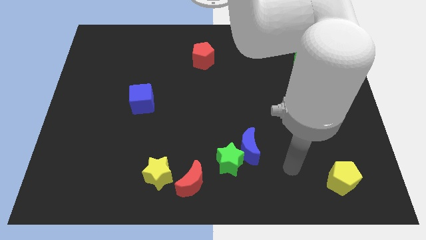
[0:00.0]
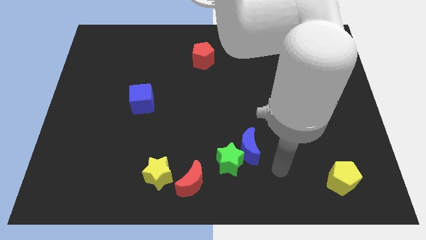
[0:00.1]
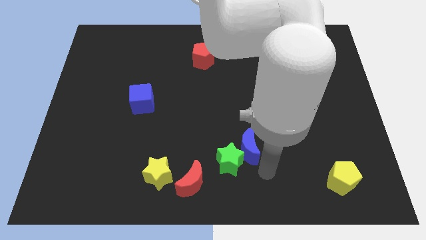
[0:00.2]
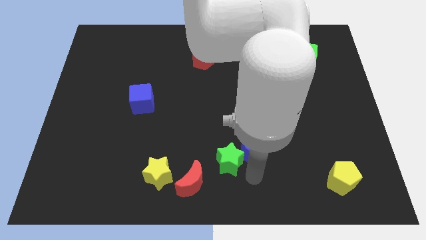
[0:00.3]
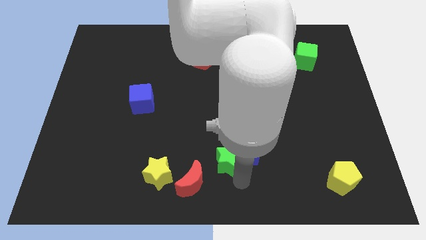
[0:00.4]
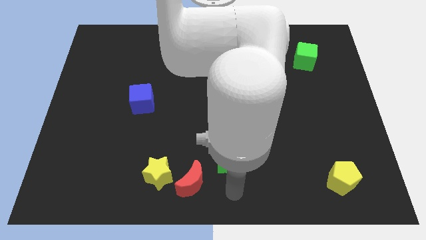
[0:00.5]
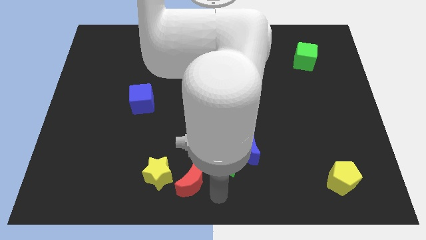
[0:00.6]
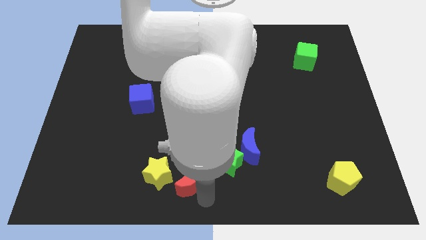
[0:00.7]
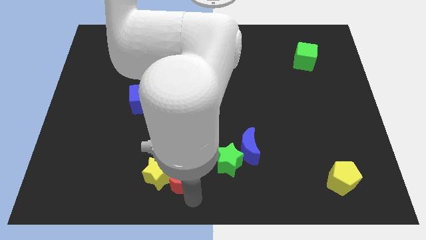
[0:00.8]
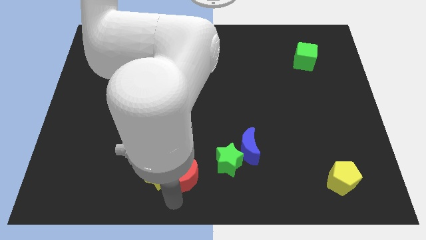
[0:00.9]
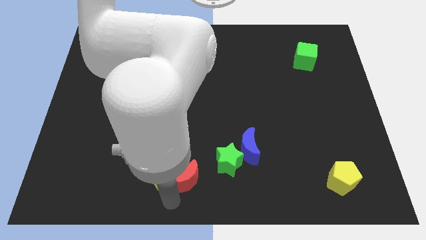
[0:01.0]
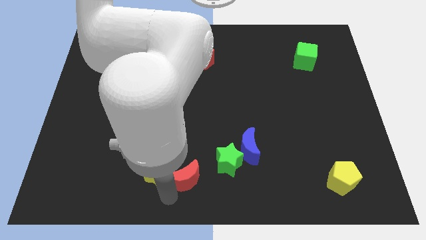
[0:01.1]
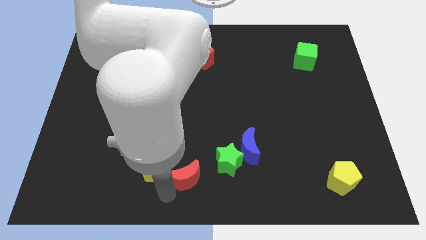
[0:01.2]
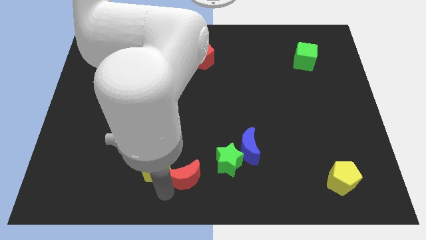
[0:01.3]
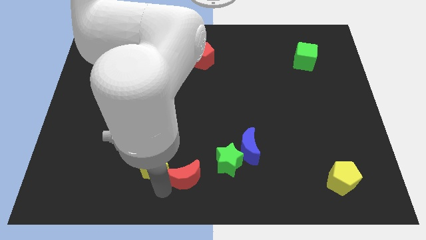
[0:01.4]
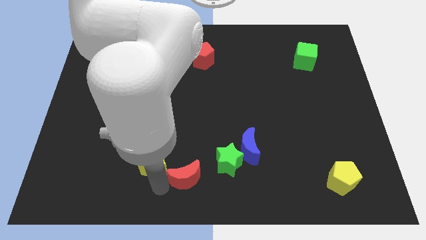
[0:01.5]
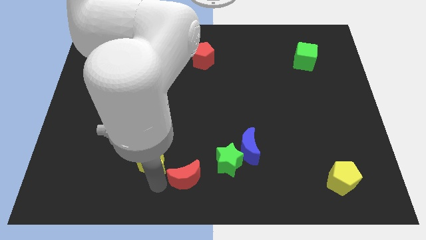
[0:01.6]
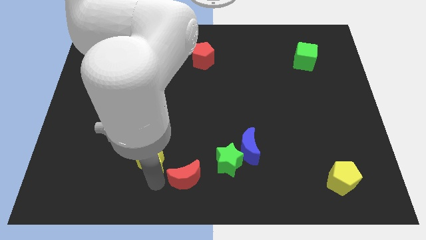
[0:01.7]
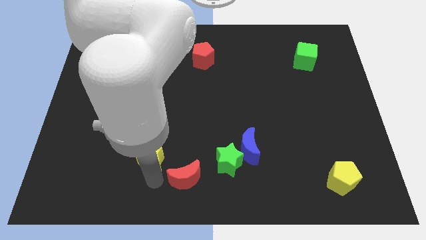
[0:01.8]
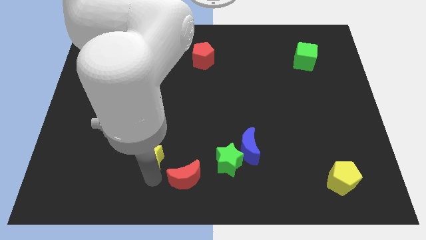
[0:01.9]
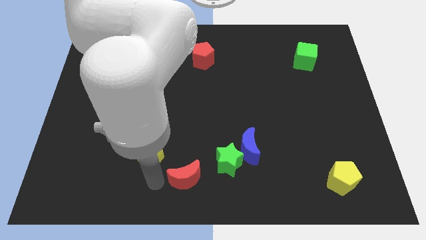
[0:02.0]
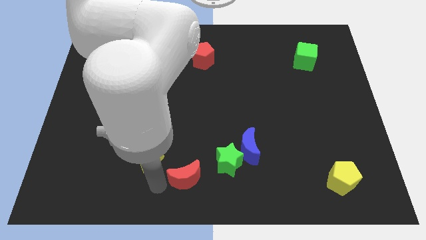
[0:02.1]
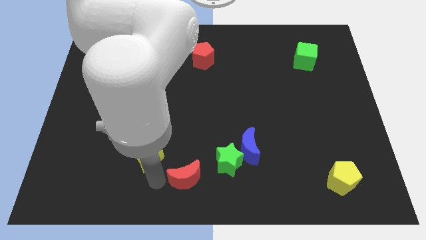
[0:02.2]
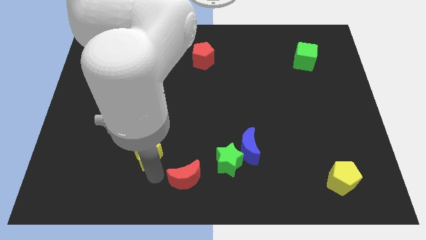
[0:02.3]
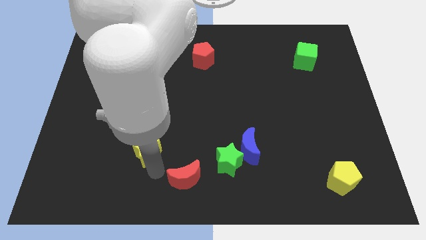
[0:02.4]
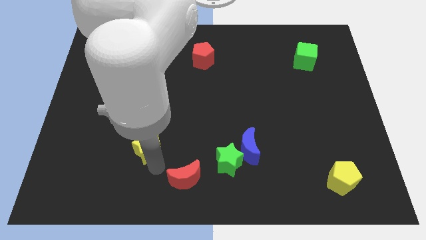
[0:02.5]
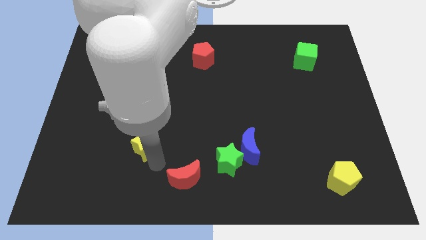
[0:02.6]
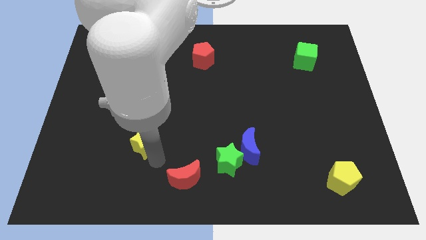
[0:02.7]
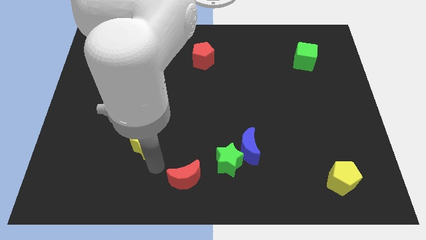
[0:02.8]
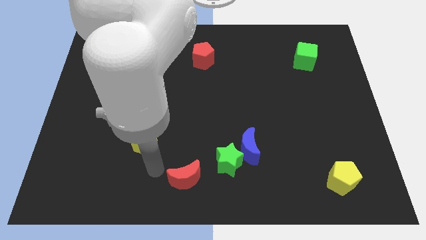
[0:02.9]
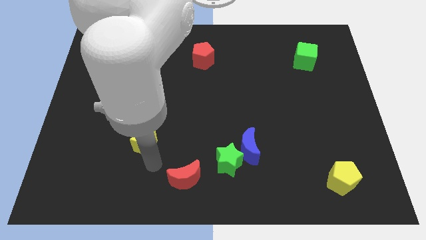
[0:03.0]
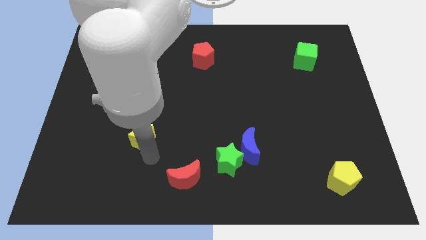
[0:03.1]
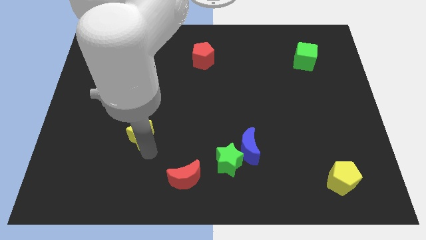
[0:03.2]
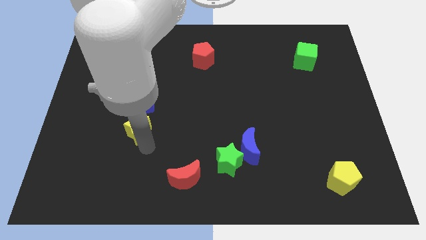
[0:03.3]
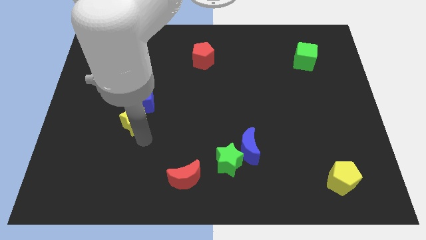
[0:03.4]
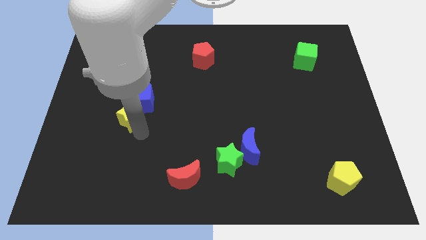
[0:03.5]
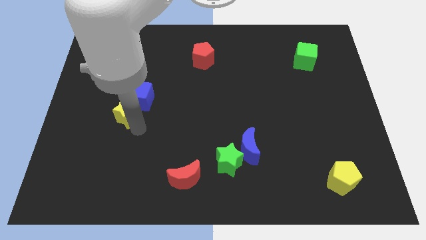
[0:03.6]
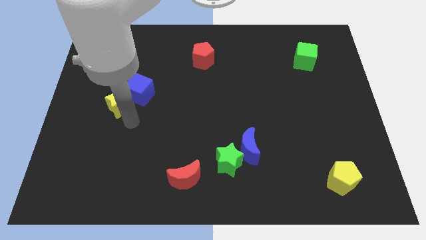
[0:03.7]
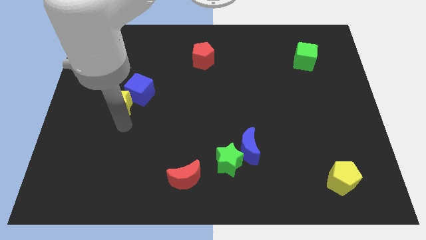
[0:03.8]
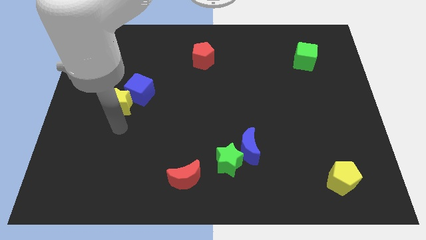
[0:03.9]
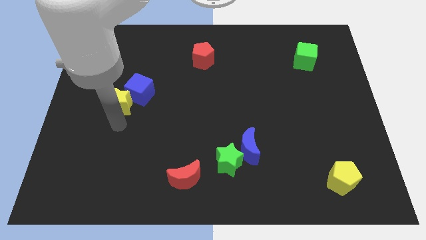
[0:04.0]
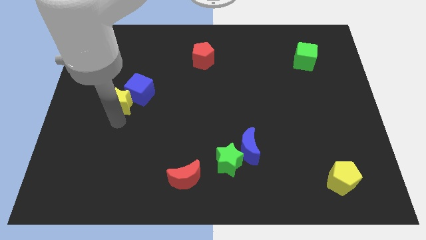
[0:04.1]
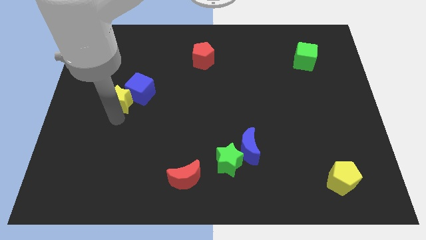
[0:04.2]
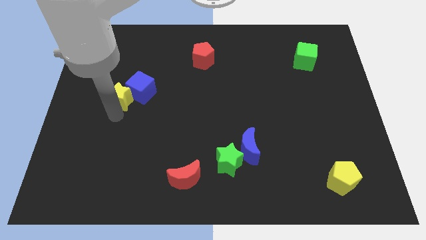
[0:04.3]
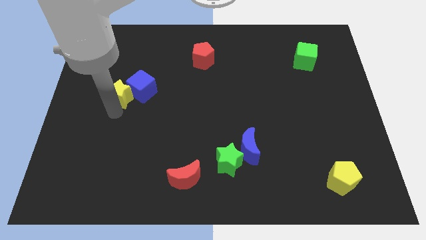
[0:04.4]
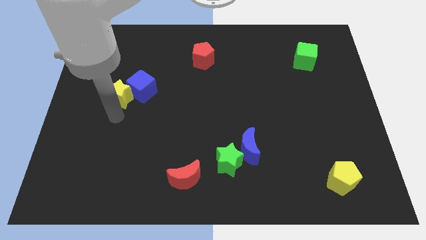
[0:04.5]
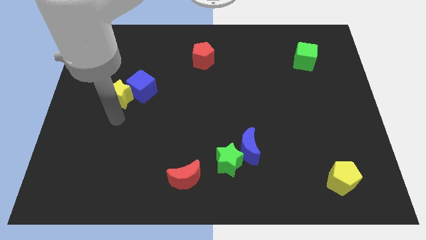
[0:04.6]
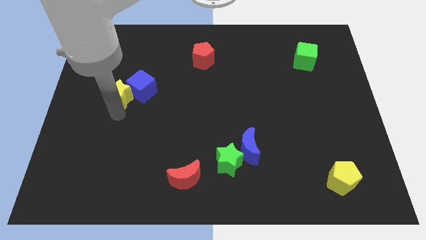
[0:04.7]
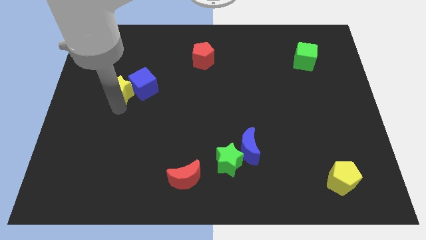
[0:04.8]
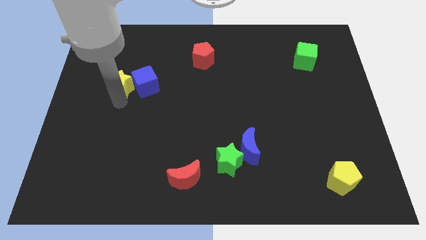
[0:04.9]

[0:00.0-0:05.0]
push the yellow star to the top left side of the blue cube

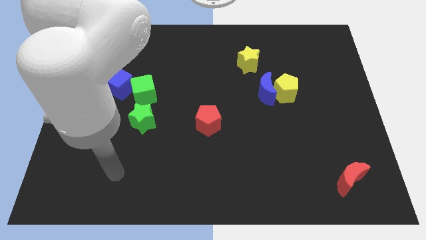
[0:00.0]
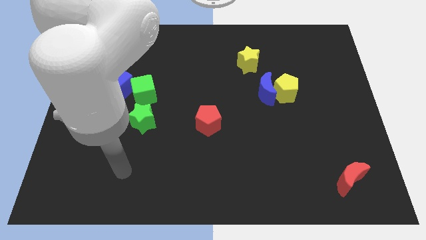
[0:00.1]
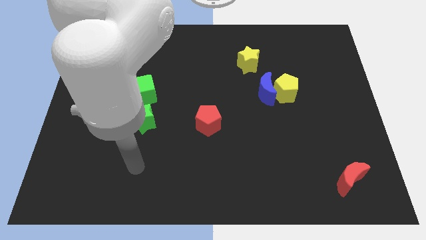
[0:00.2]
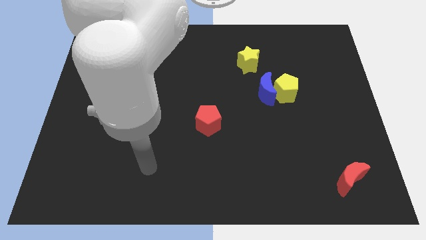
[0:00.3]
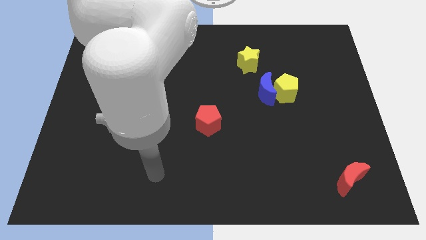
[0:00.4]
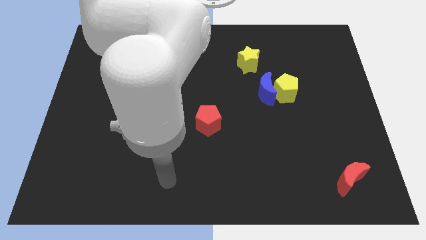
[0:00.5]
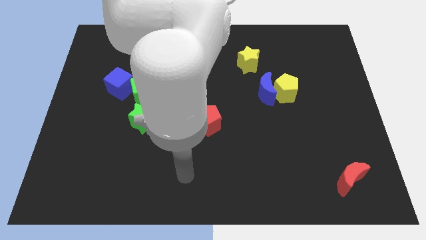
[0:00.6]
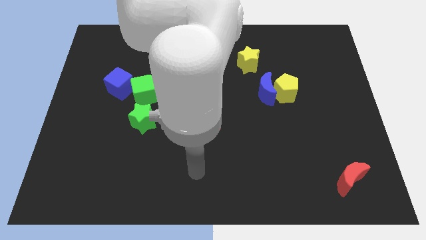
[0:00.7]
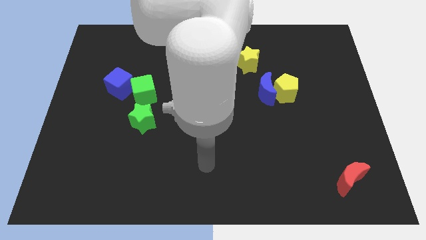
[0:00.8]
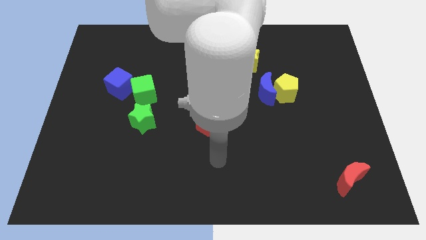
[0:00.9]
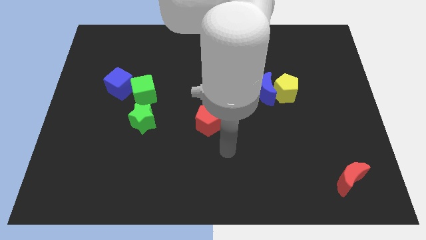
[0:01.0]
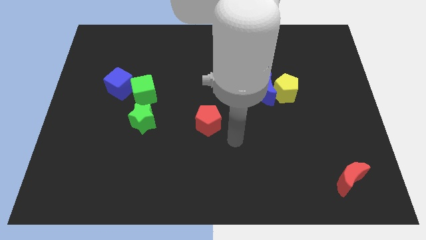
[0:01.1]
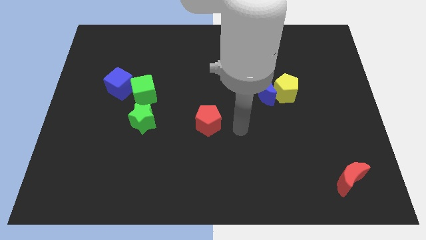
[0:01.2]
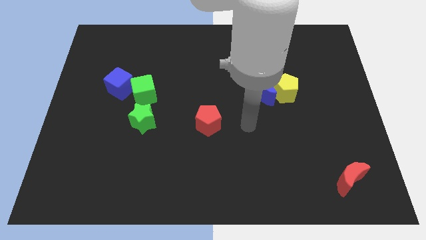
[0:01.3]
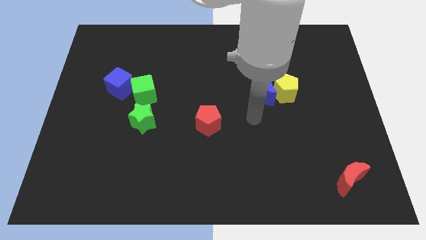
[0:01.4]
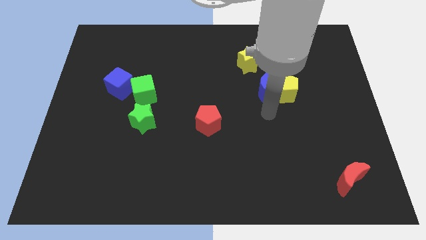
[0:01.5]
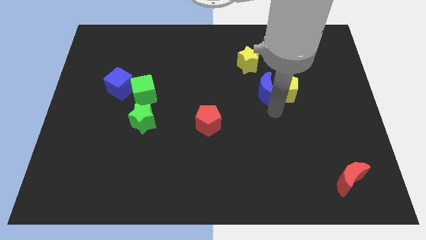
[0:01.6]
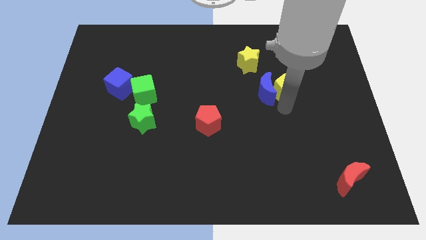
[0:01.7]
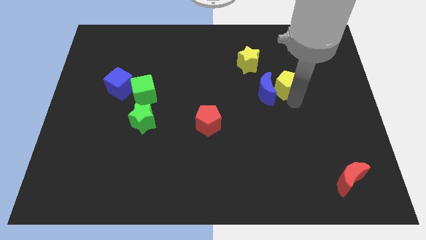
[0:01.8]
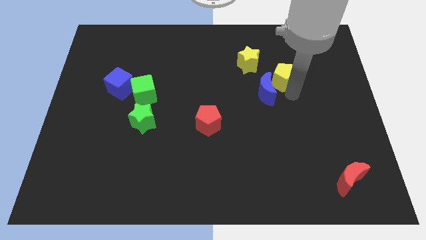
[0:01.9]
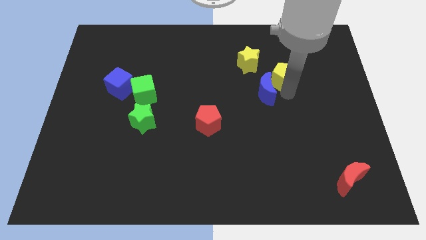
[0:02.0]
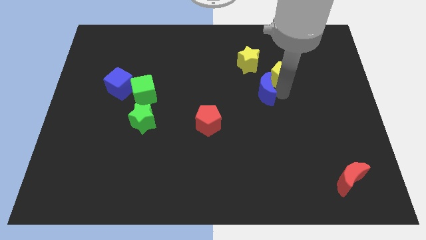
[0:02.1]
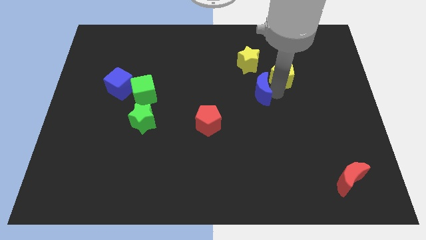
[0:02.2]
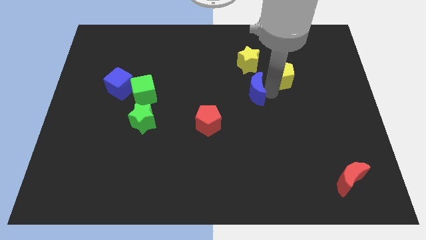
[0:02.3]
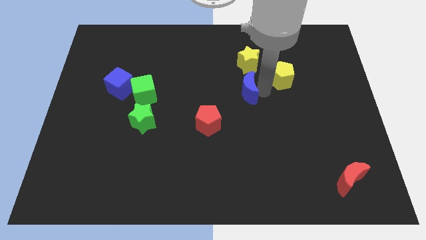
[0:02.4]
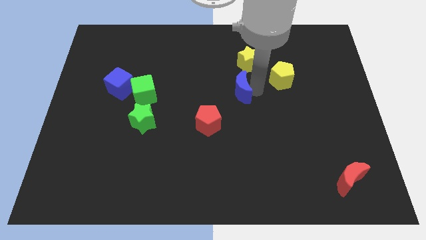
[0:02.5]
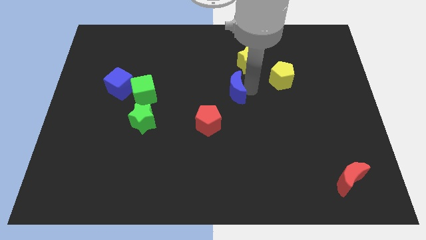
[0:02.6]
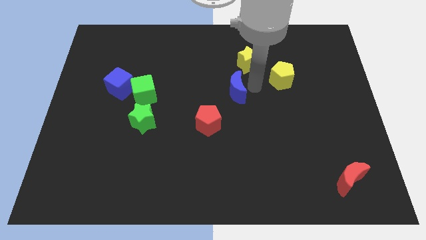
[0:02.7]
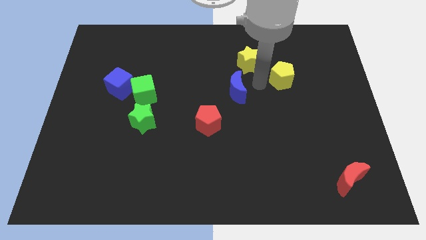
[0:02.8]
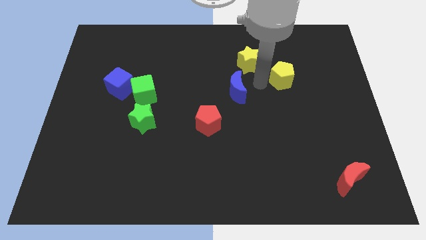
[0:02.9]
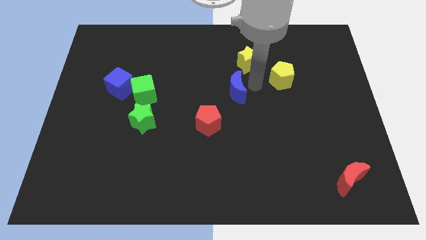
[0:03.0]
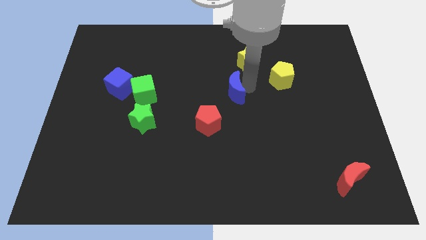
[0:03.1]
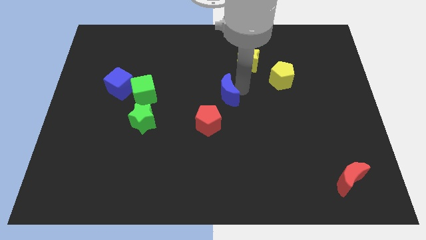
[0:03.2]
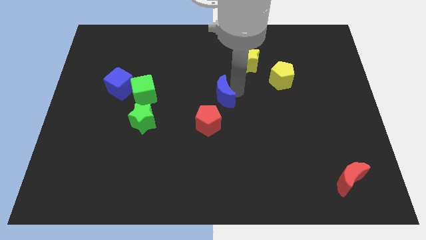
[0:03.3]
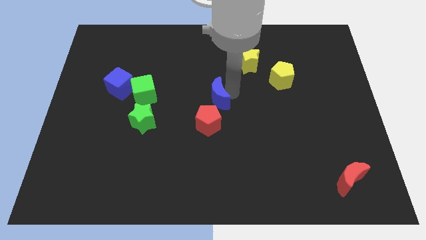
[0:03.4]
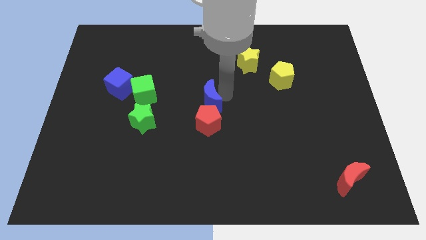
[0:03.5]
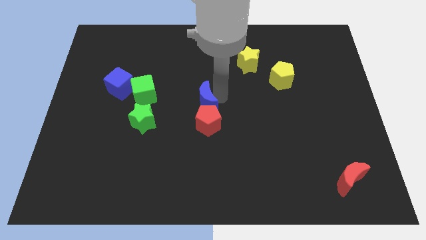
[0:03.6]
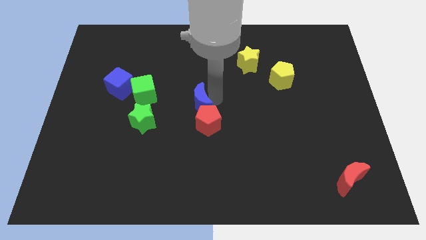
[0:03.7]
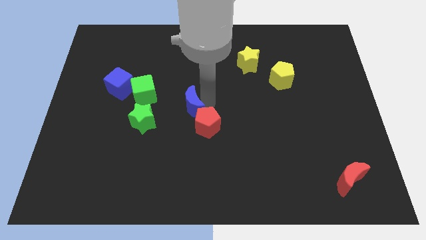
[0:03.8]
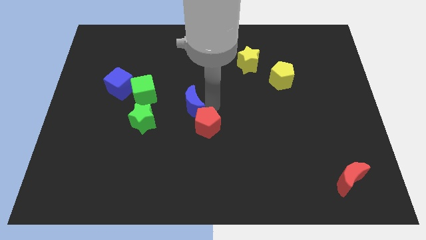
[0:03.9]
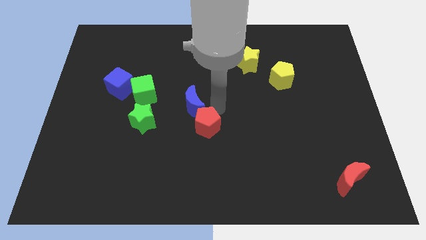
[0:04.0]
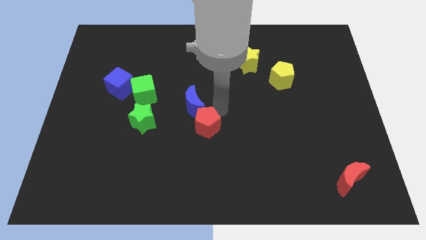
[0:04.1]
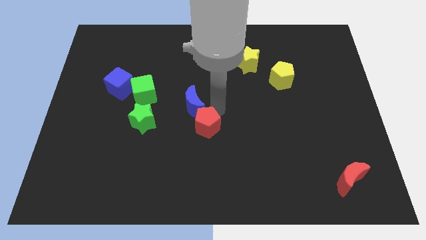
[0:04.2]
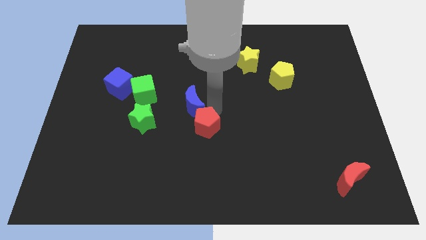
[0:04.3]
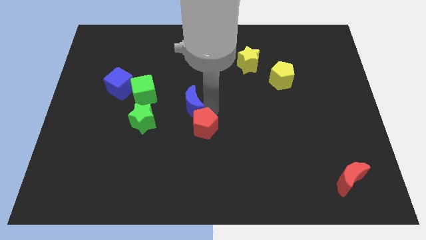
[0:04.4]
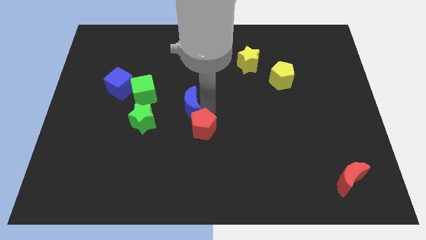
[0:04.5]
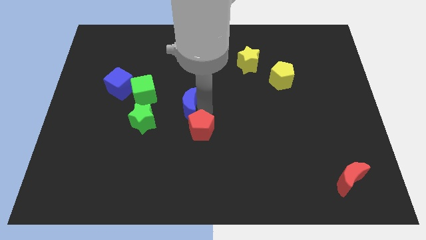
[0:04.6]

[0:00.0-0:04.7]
move the blue moon diagonally up and to the right of the green star
